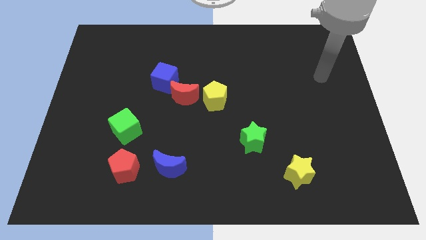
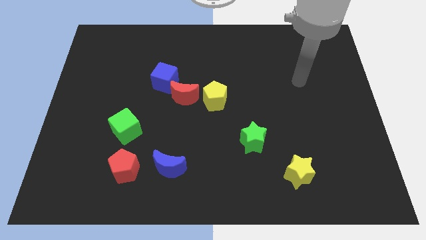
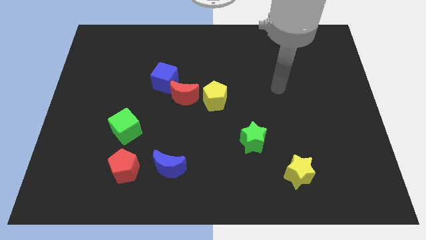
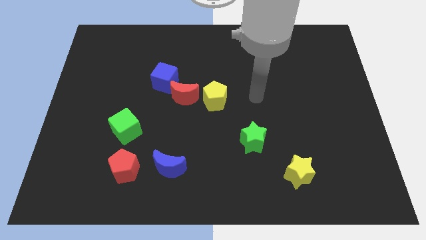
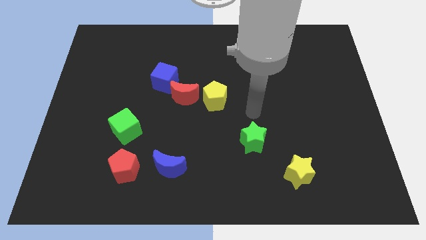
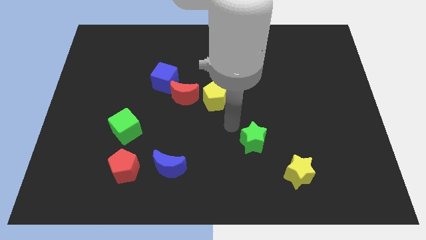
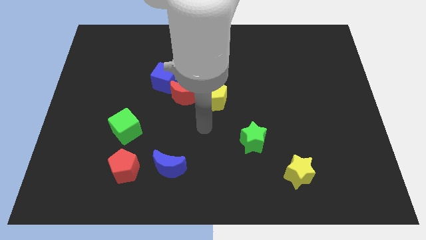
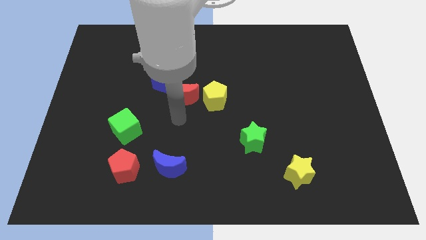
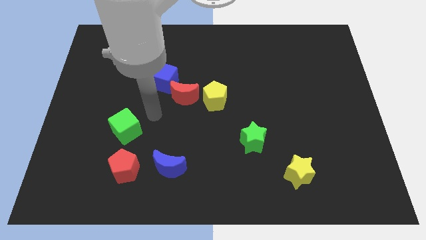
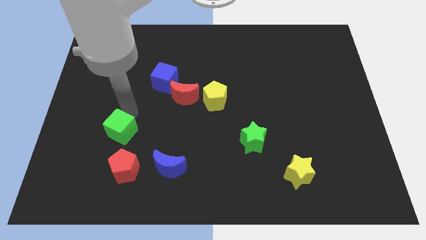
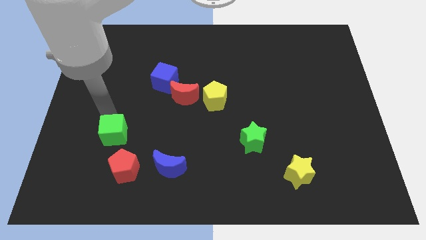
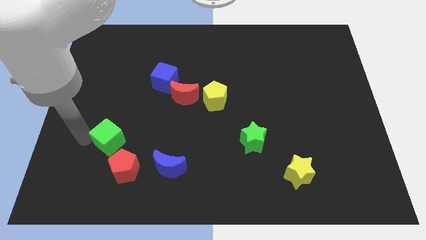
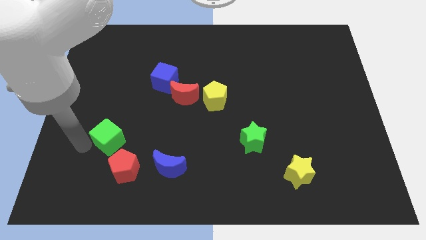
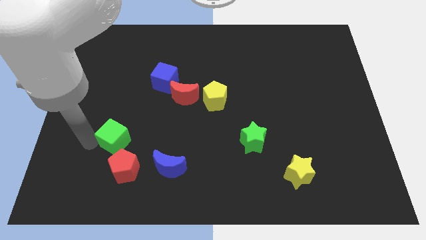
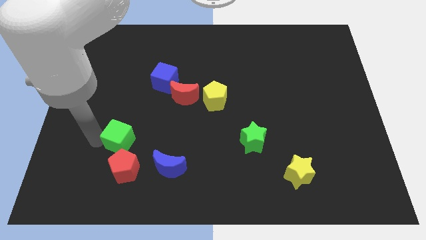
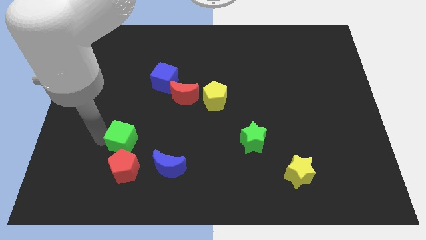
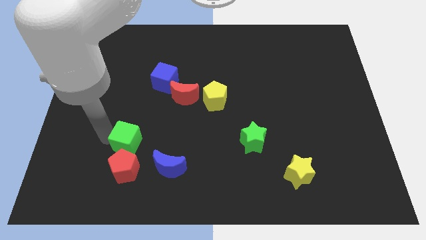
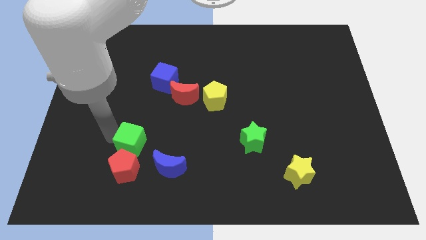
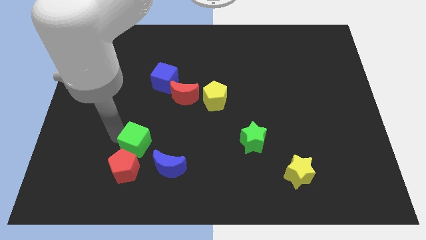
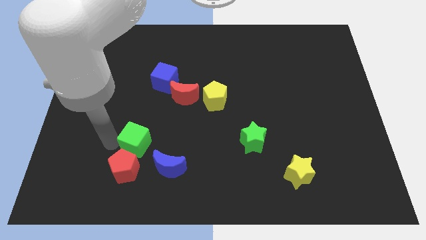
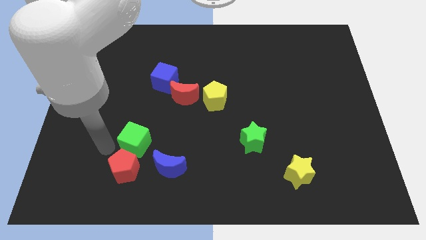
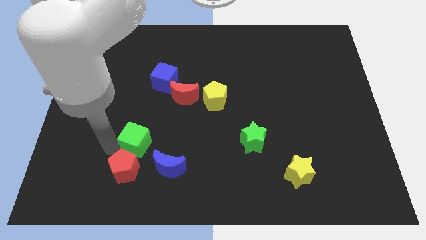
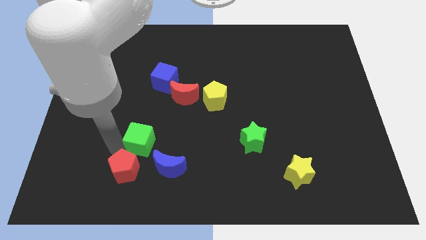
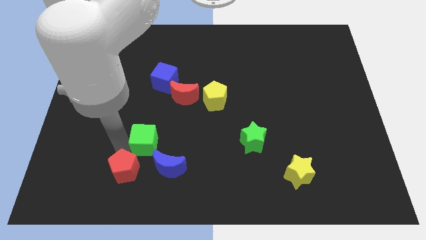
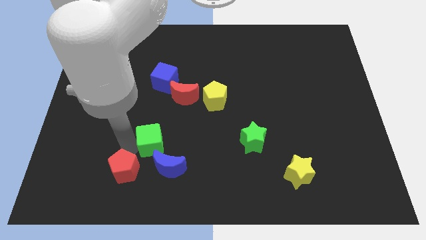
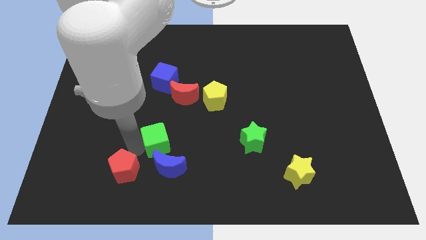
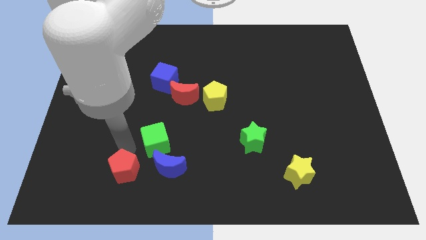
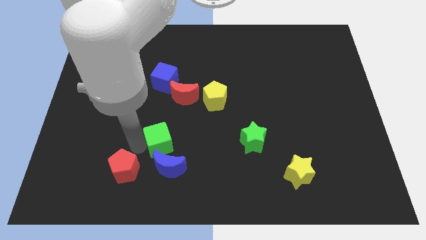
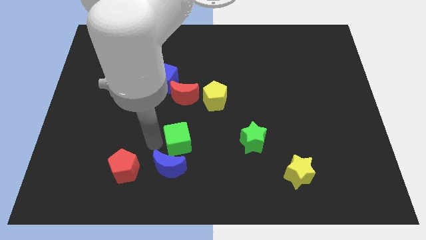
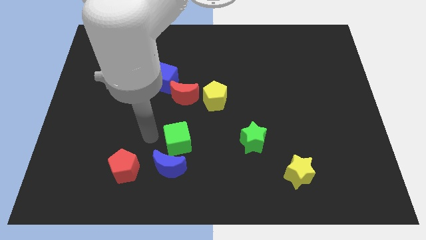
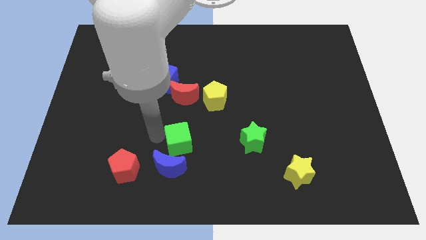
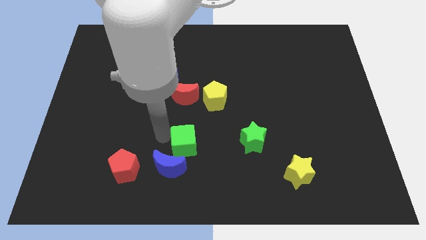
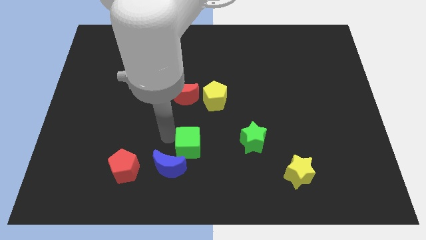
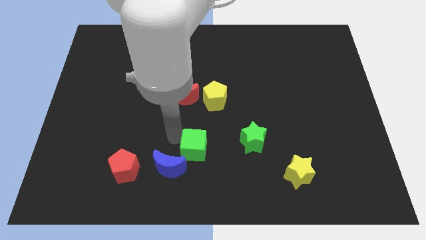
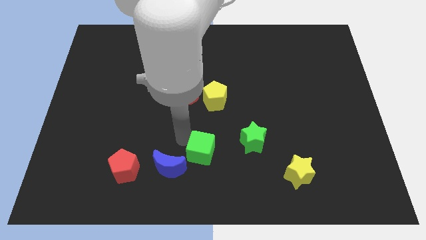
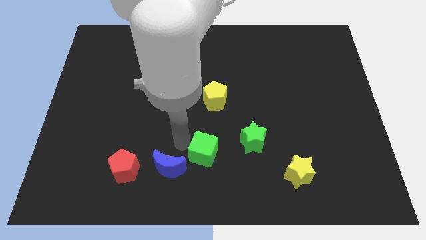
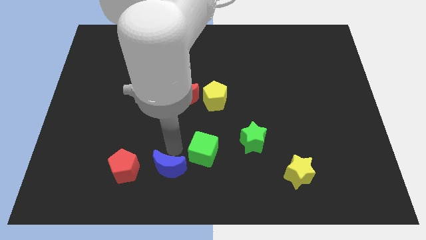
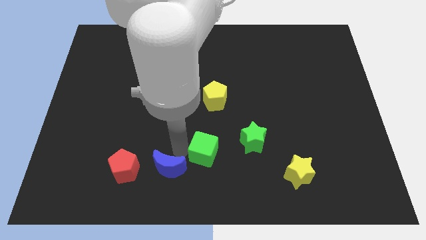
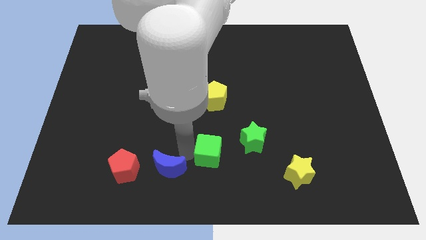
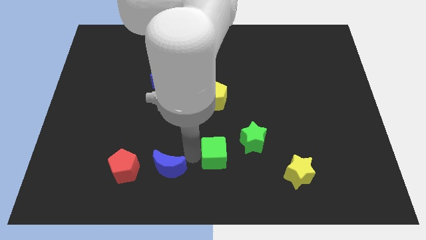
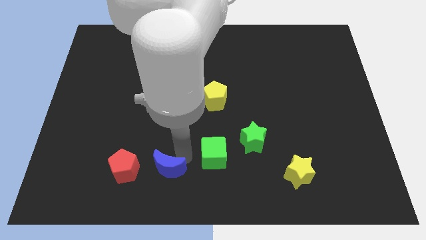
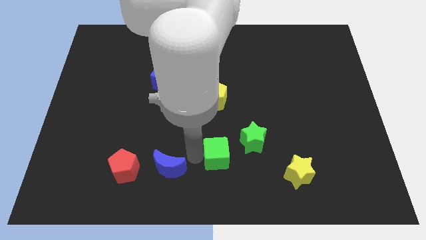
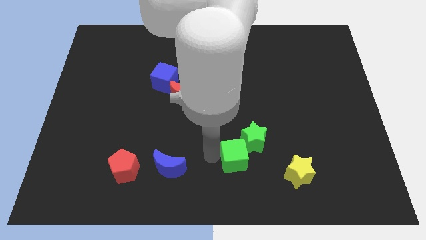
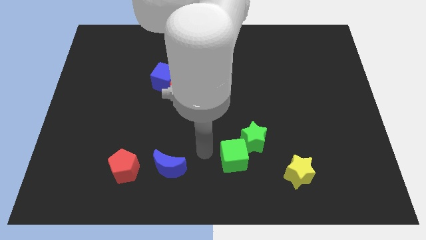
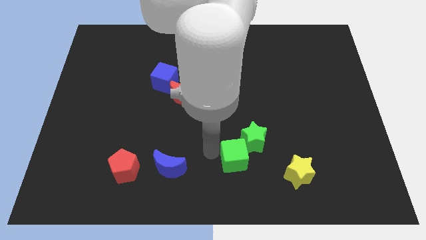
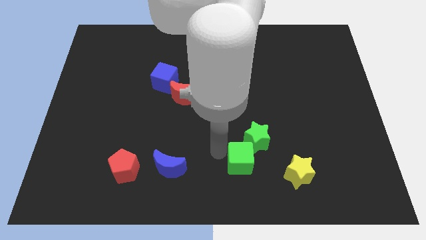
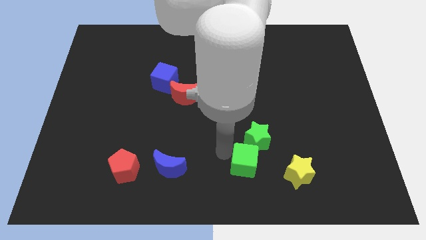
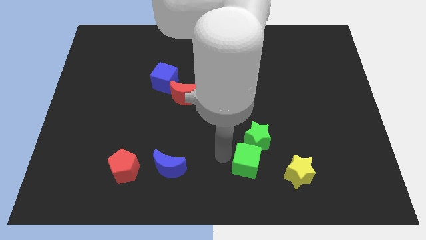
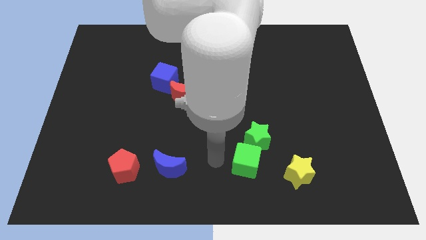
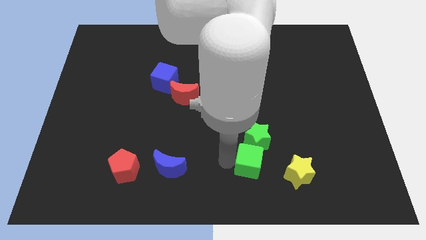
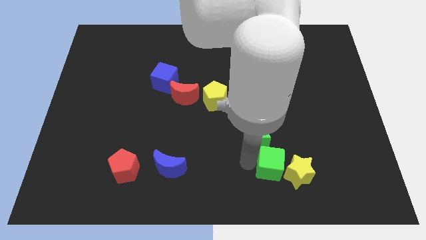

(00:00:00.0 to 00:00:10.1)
push the green cube close to the yellow star

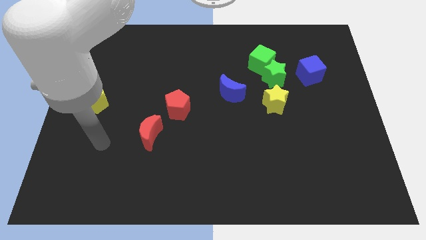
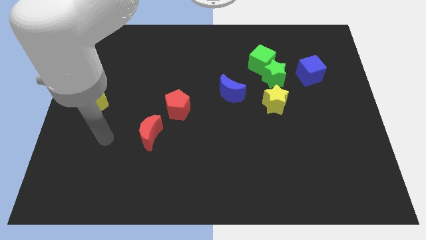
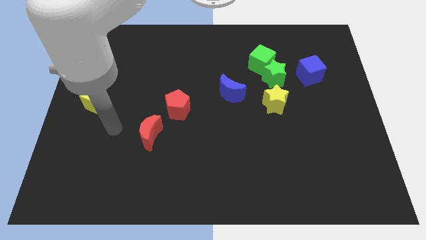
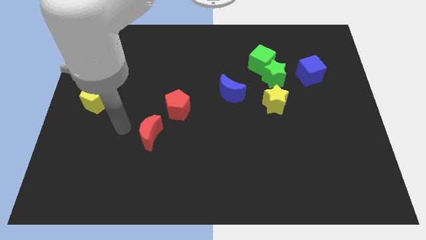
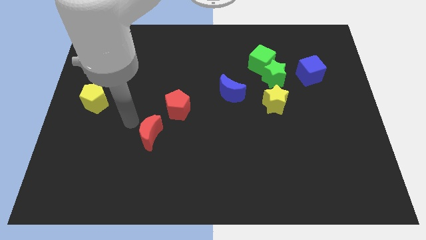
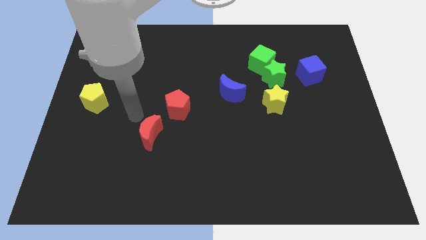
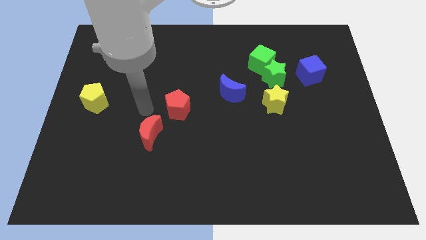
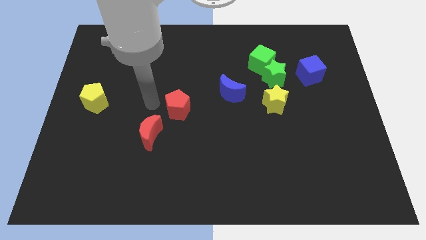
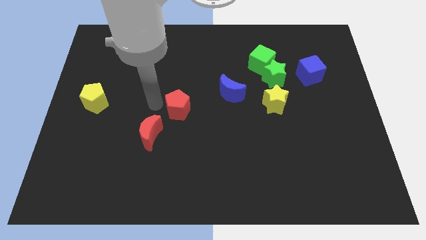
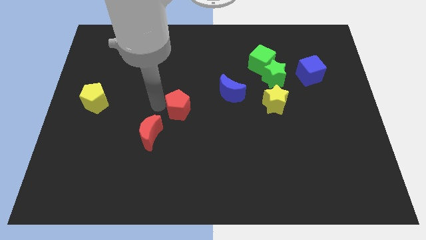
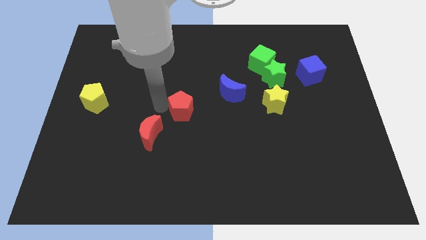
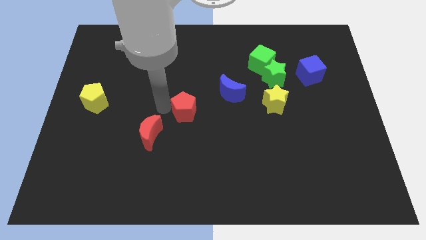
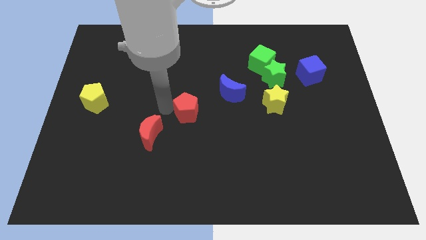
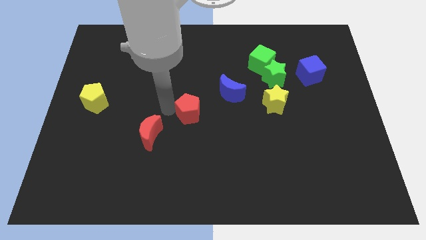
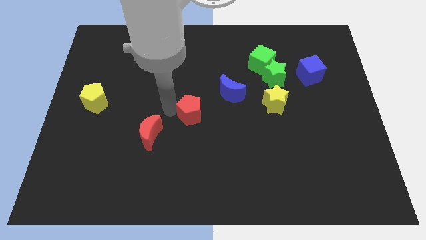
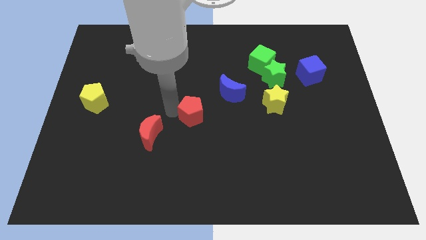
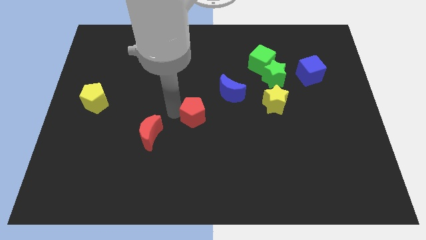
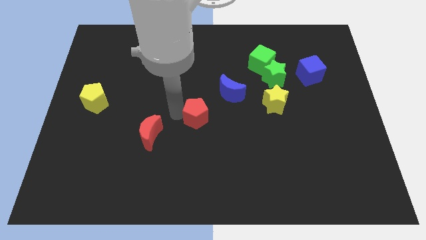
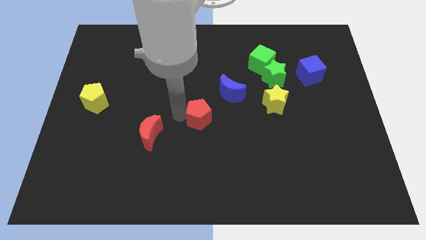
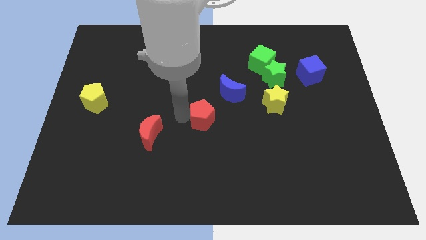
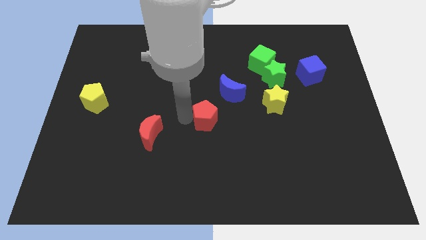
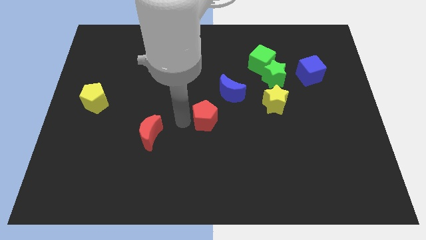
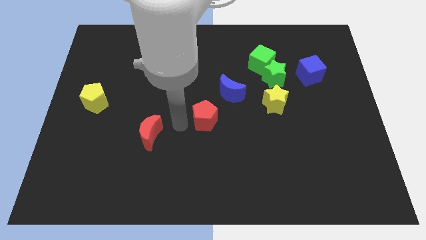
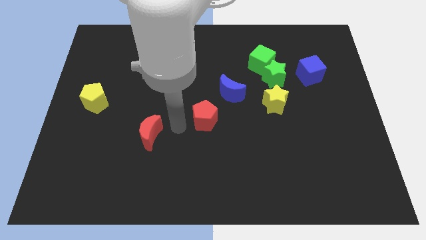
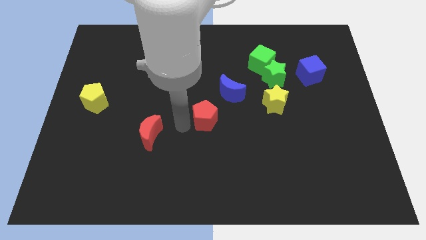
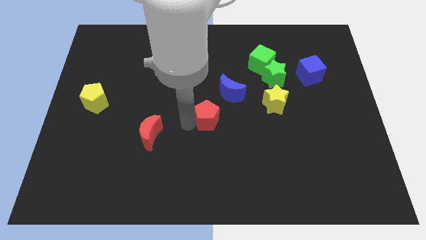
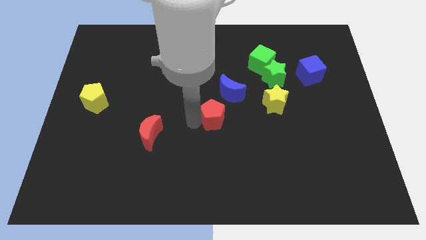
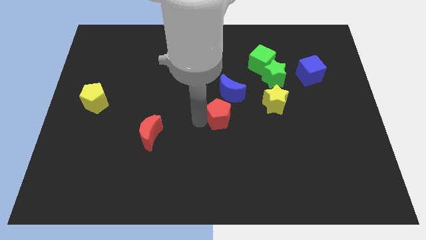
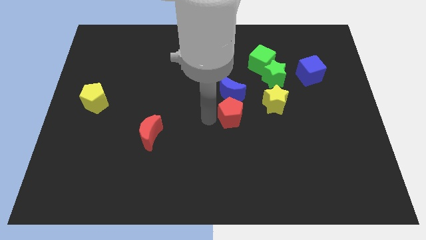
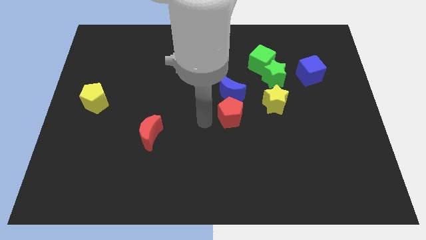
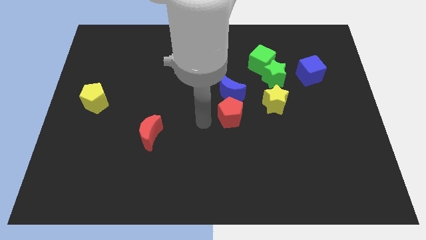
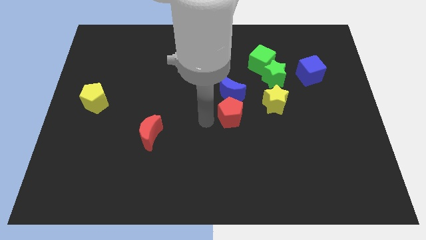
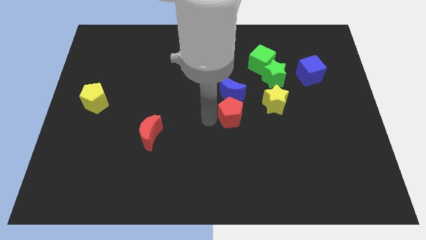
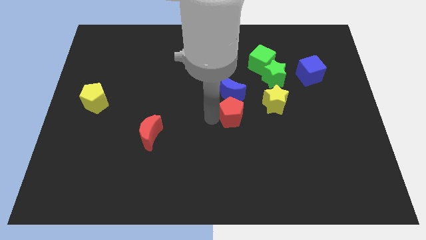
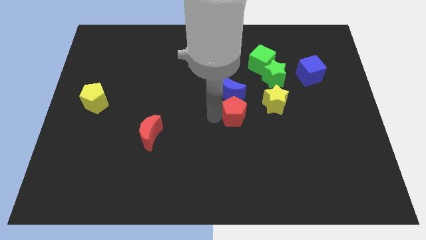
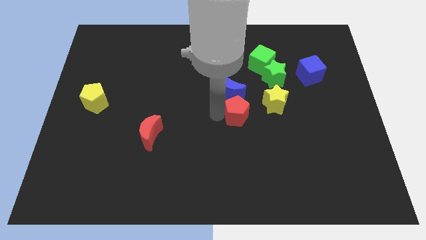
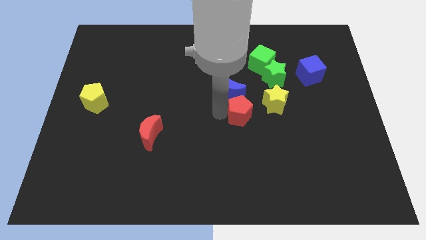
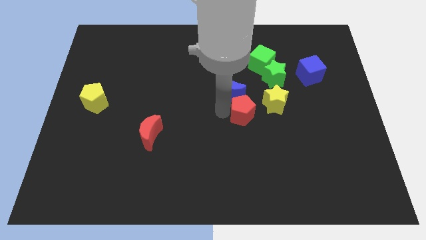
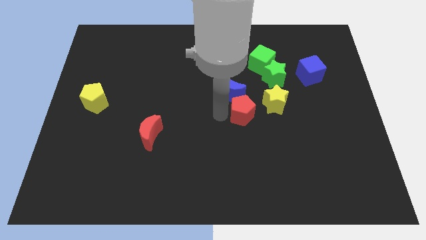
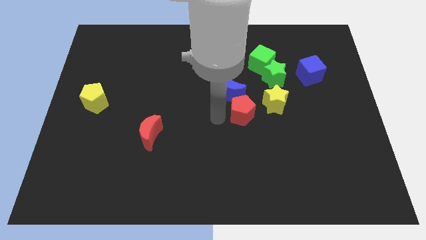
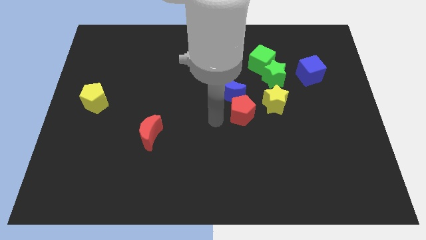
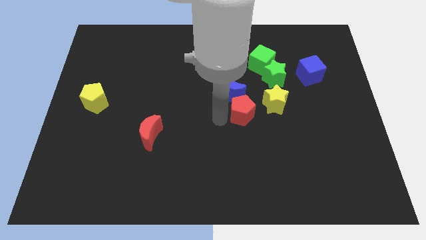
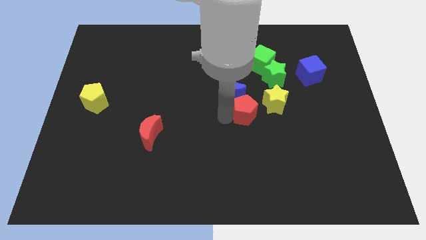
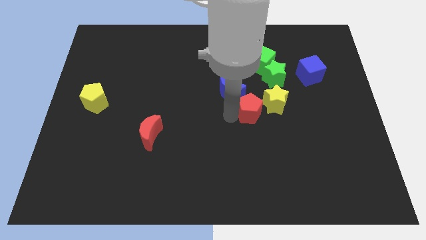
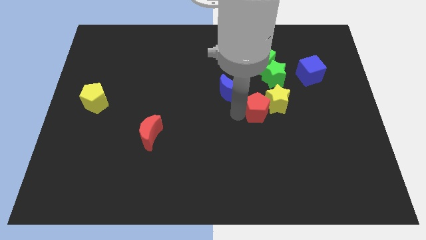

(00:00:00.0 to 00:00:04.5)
push the red pentagon towards the yellow star
